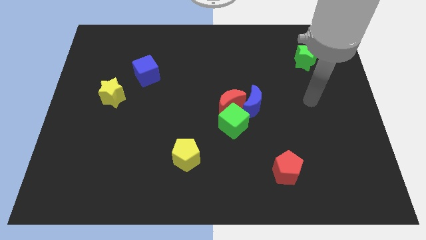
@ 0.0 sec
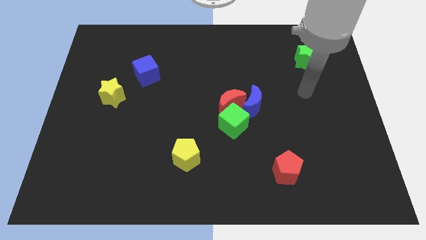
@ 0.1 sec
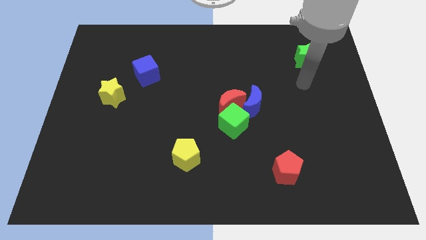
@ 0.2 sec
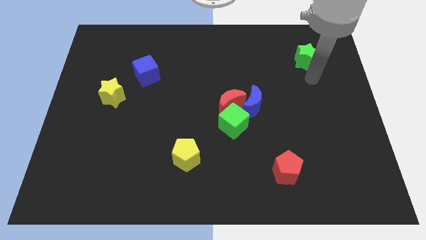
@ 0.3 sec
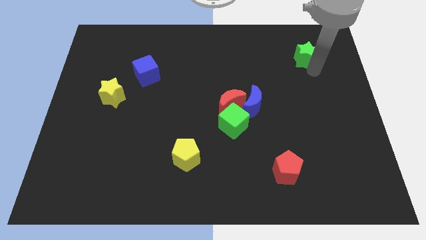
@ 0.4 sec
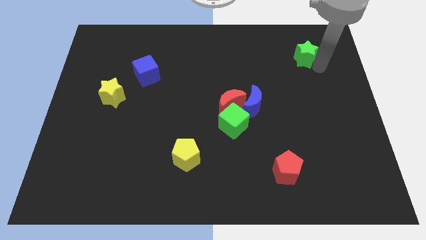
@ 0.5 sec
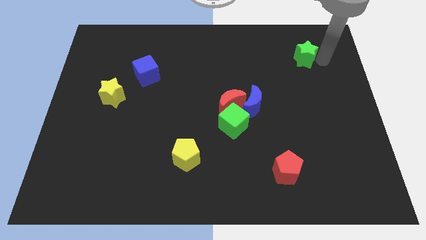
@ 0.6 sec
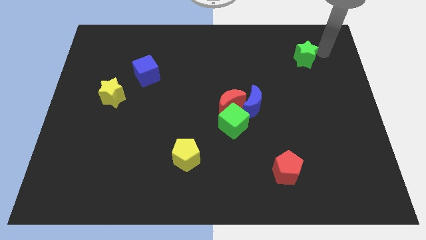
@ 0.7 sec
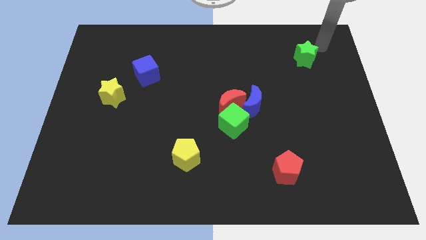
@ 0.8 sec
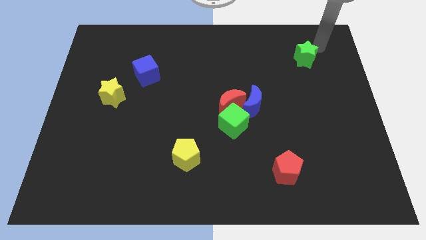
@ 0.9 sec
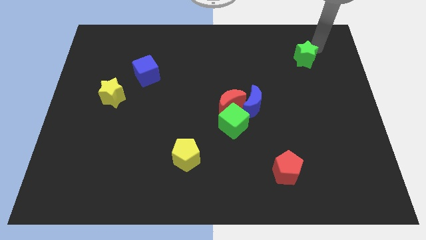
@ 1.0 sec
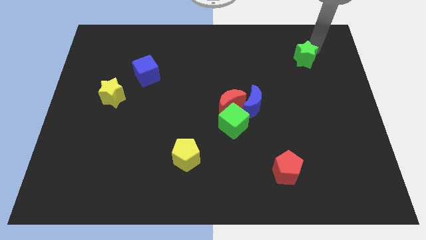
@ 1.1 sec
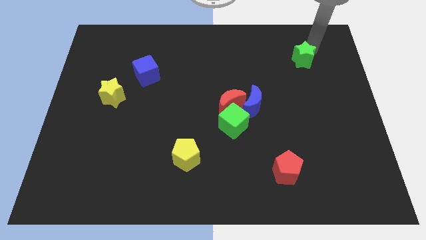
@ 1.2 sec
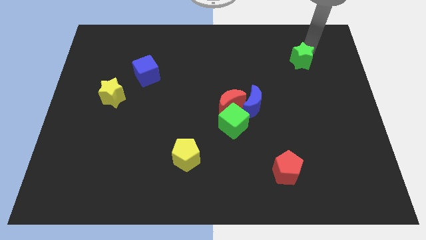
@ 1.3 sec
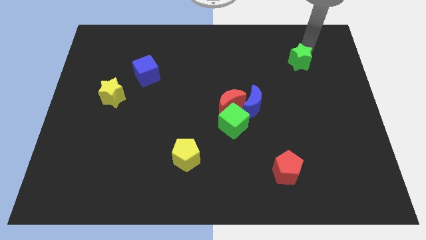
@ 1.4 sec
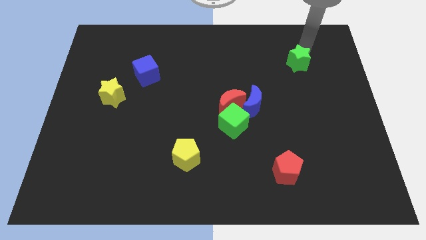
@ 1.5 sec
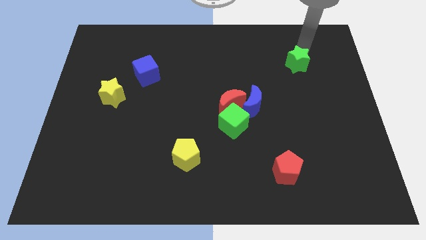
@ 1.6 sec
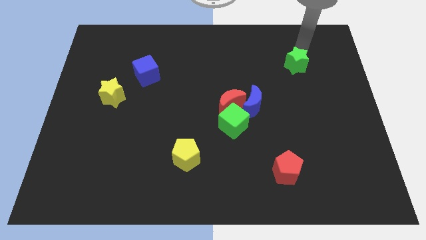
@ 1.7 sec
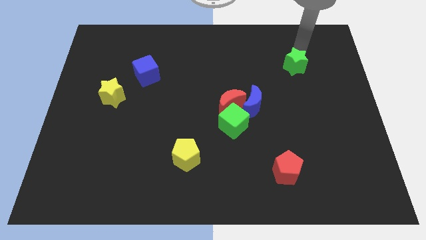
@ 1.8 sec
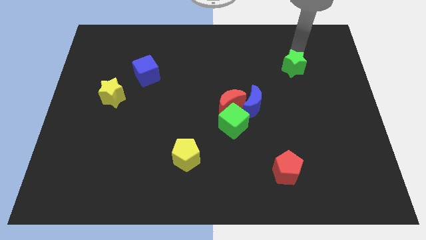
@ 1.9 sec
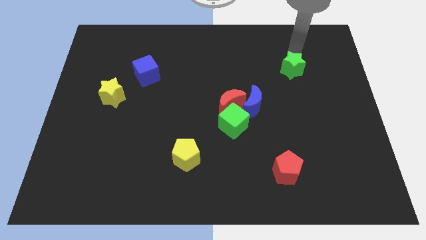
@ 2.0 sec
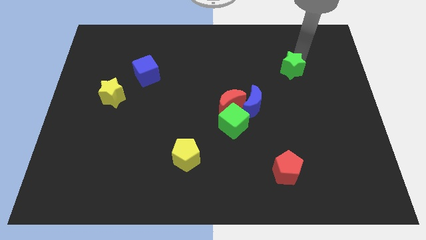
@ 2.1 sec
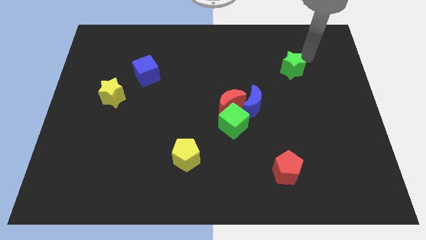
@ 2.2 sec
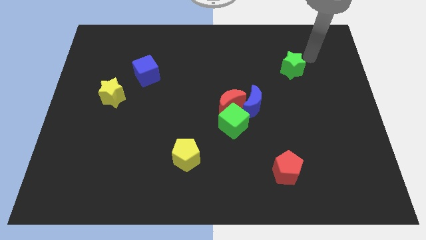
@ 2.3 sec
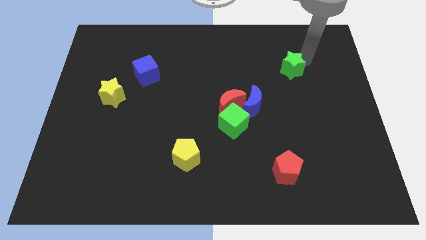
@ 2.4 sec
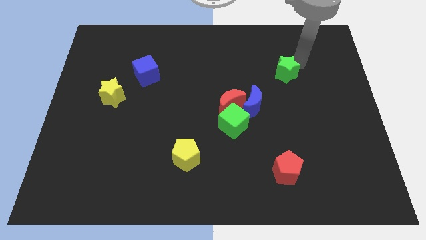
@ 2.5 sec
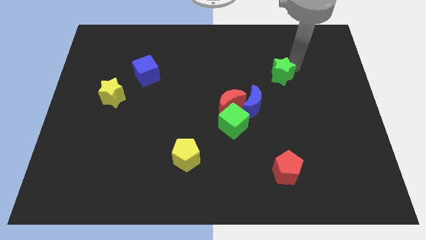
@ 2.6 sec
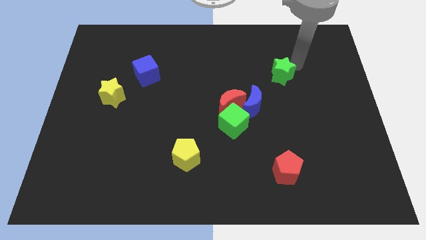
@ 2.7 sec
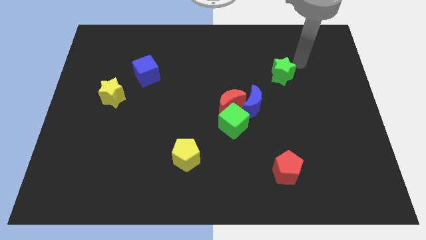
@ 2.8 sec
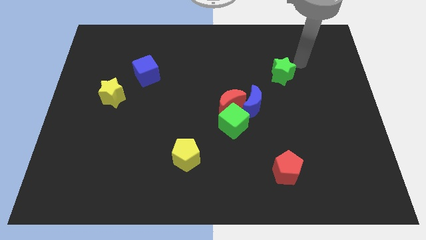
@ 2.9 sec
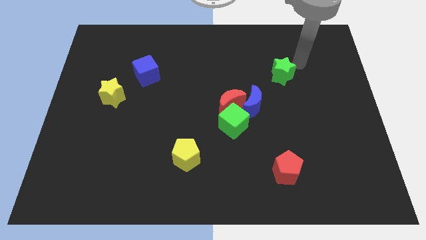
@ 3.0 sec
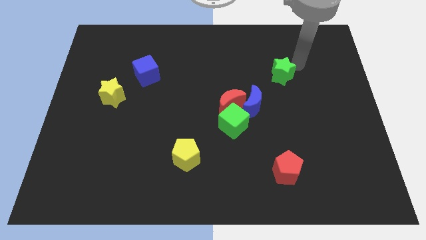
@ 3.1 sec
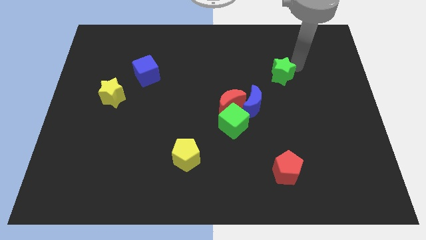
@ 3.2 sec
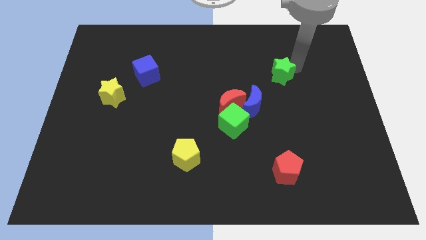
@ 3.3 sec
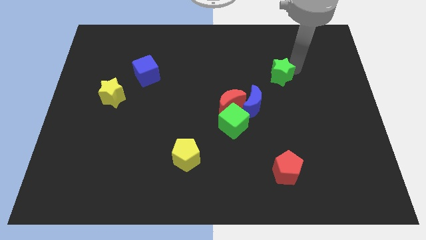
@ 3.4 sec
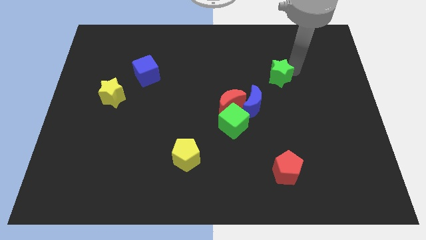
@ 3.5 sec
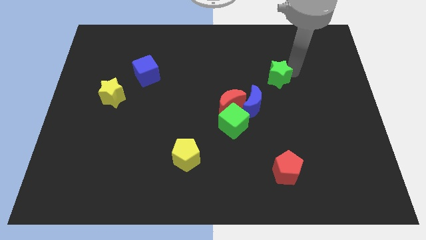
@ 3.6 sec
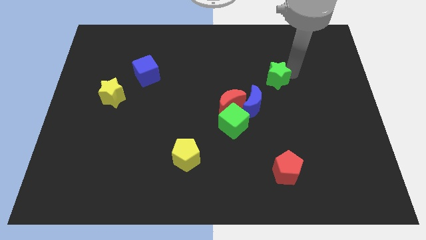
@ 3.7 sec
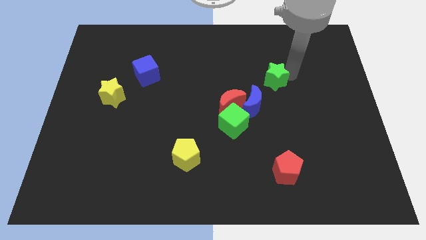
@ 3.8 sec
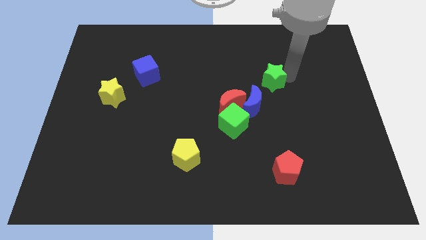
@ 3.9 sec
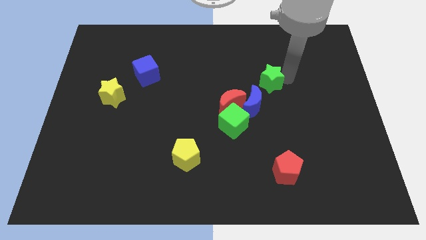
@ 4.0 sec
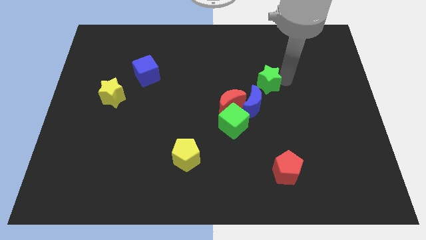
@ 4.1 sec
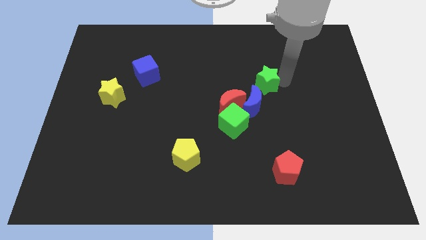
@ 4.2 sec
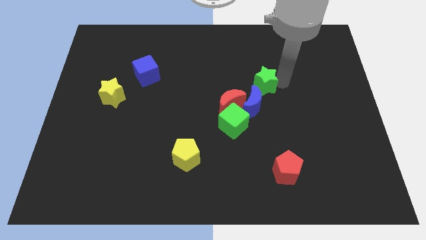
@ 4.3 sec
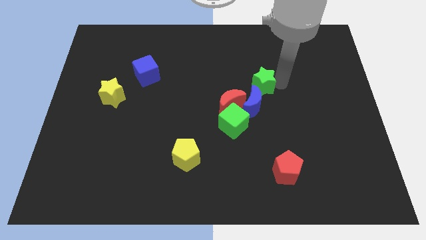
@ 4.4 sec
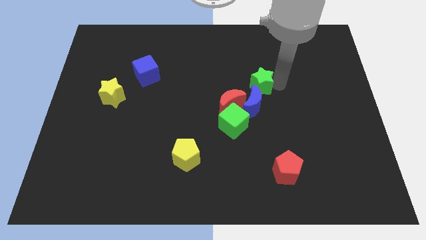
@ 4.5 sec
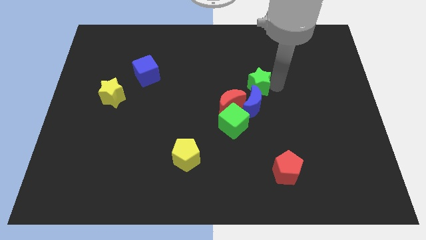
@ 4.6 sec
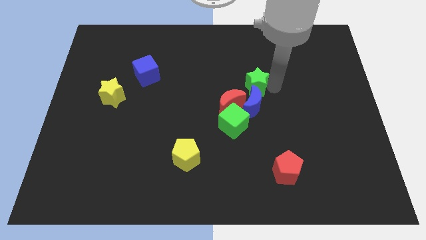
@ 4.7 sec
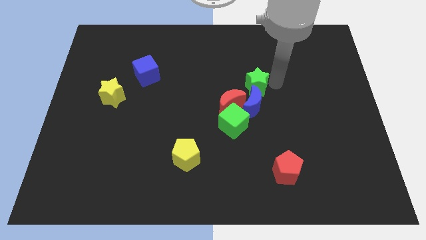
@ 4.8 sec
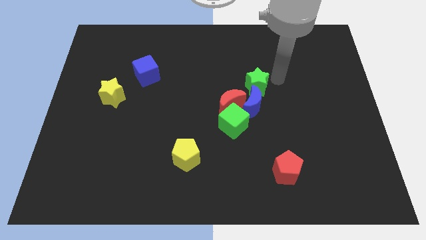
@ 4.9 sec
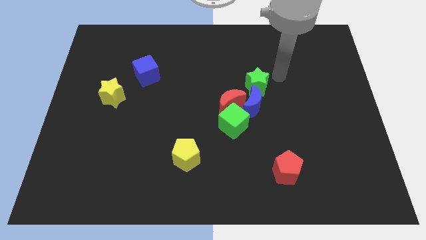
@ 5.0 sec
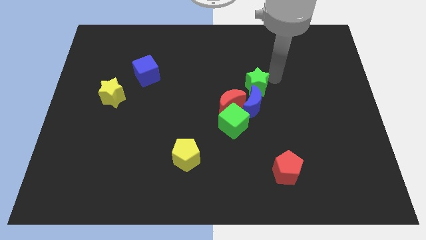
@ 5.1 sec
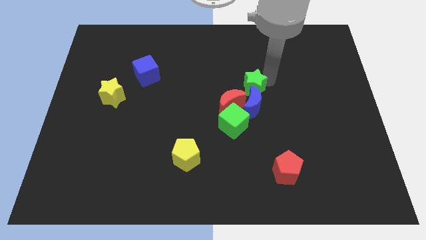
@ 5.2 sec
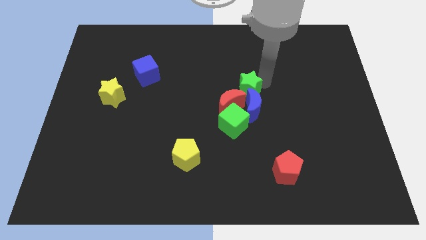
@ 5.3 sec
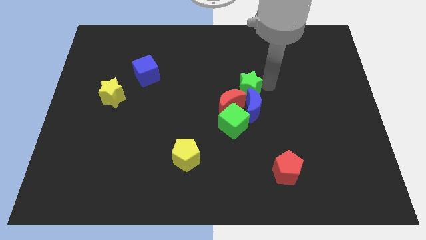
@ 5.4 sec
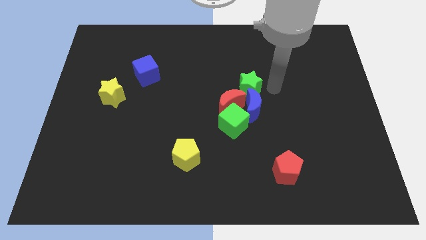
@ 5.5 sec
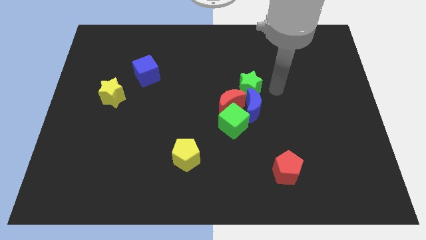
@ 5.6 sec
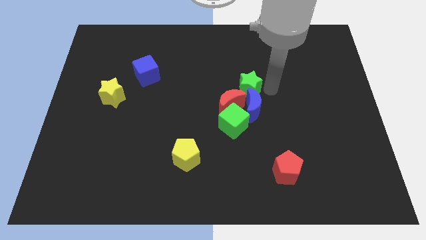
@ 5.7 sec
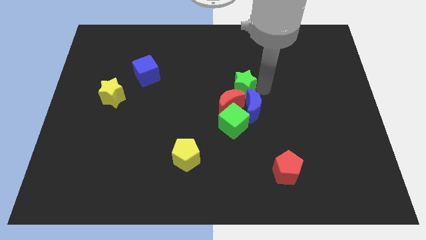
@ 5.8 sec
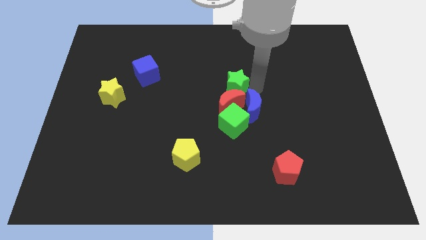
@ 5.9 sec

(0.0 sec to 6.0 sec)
move the green star close to the red moon

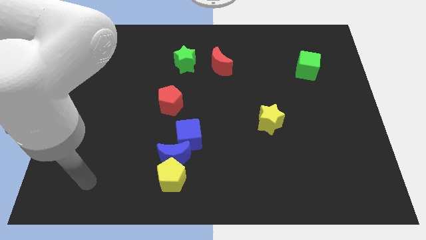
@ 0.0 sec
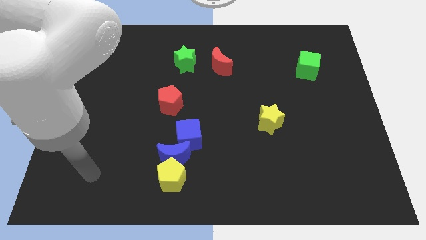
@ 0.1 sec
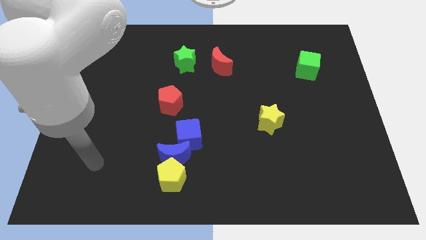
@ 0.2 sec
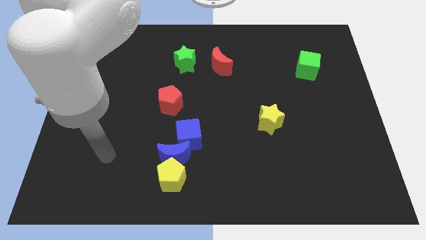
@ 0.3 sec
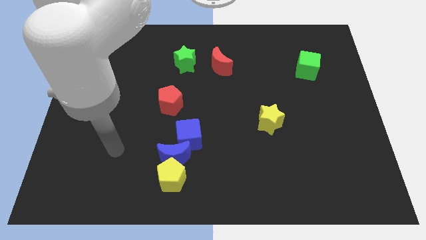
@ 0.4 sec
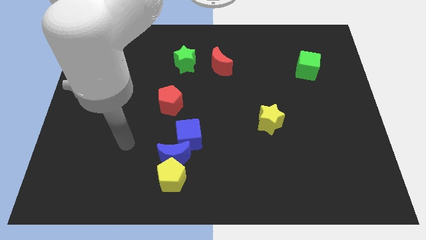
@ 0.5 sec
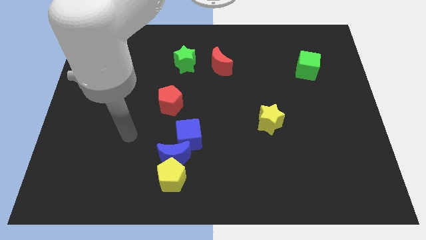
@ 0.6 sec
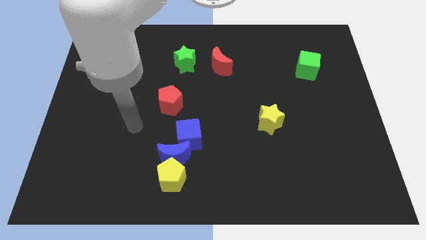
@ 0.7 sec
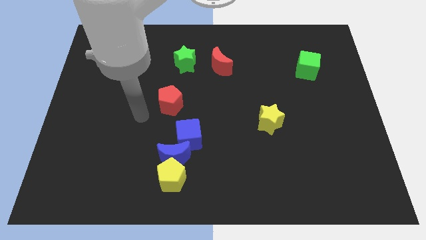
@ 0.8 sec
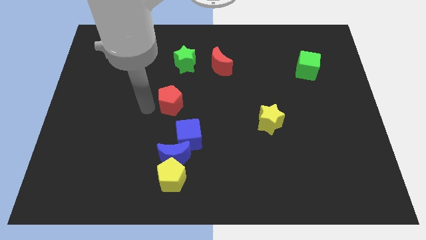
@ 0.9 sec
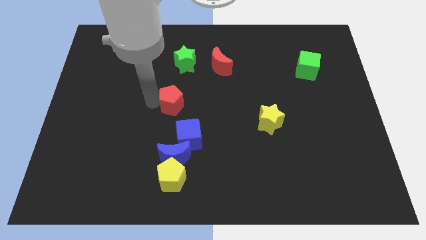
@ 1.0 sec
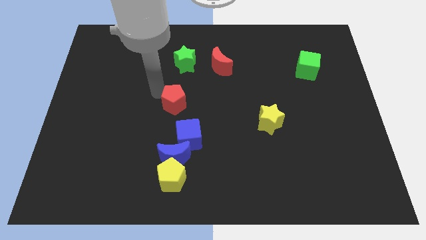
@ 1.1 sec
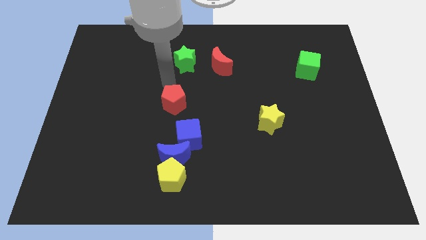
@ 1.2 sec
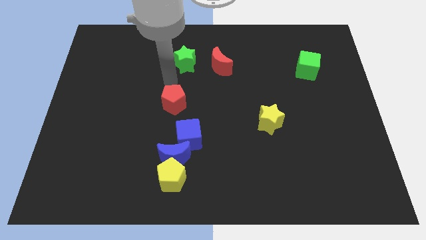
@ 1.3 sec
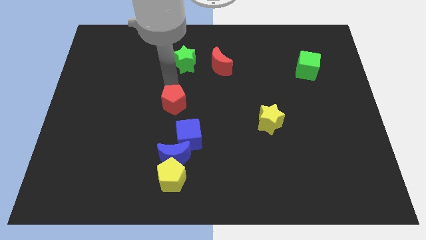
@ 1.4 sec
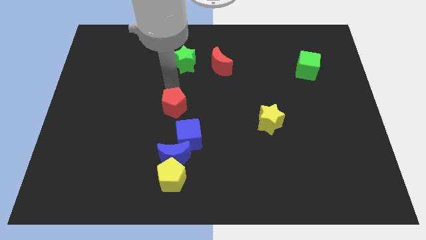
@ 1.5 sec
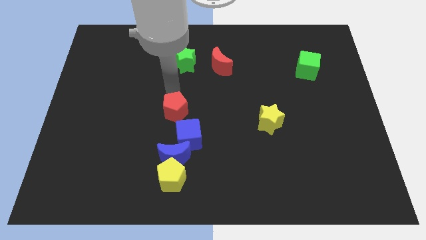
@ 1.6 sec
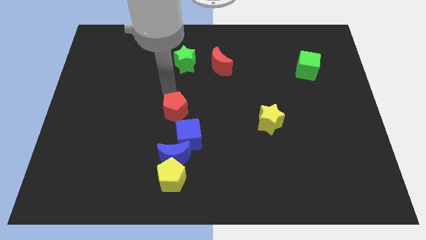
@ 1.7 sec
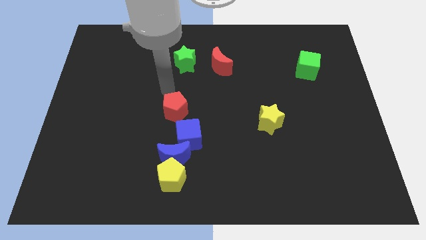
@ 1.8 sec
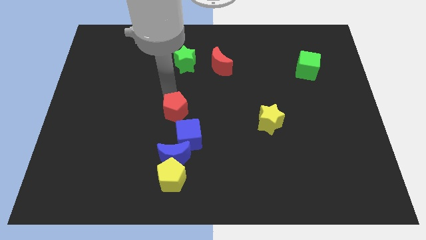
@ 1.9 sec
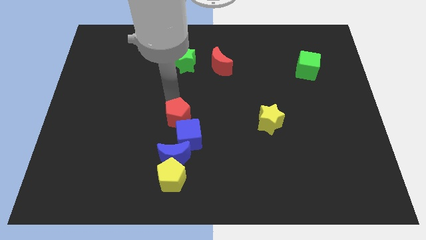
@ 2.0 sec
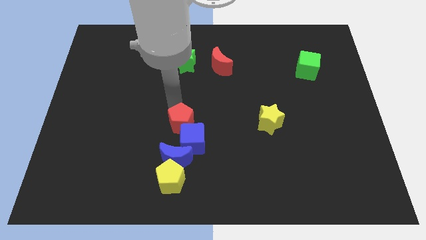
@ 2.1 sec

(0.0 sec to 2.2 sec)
slide the red pentagon close to the blue cube
